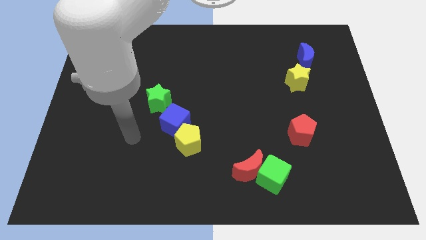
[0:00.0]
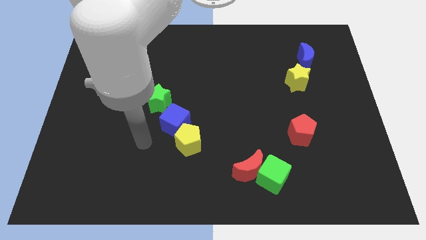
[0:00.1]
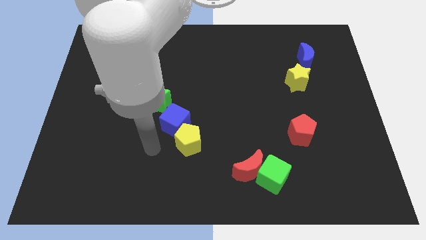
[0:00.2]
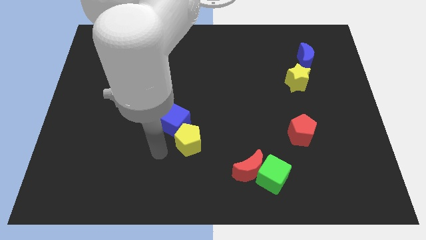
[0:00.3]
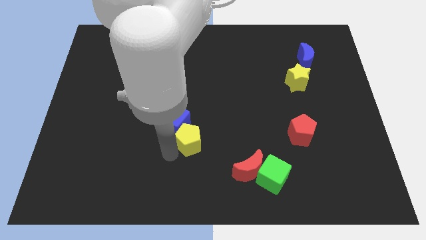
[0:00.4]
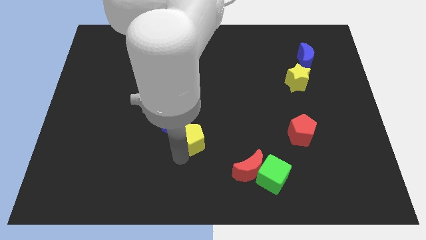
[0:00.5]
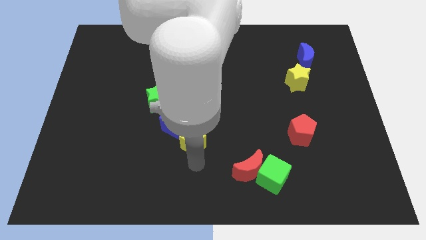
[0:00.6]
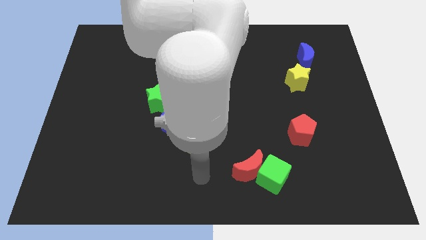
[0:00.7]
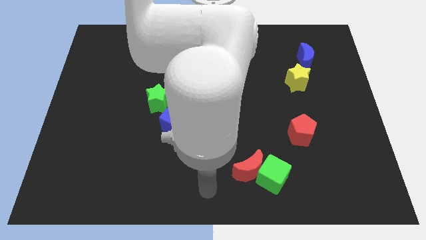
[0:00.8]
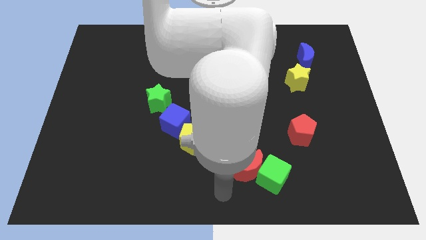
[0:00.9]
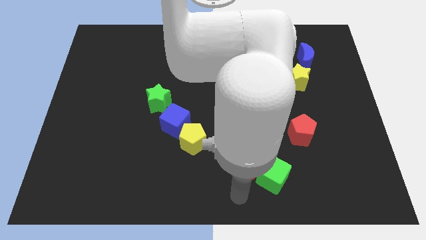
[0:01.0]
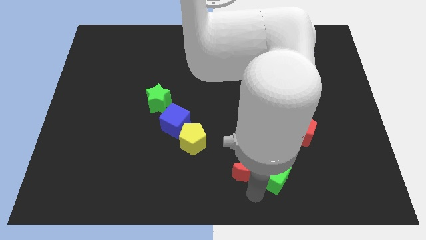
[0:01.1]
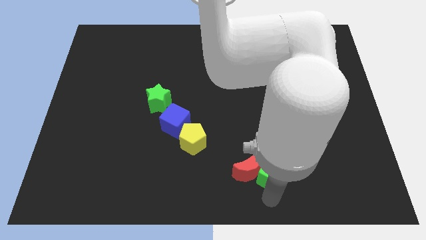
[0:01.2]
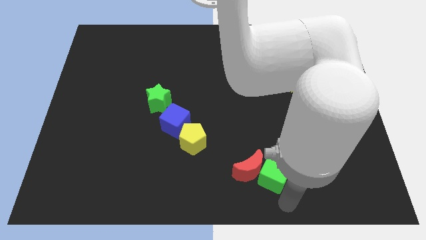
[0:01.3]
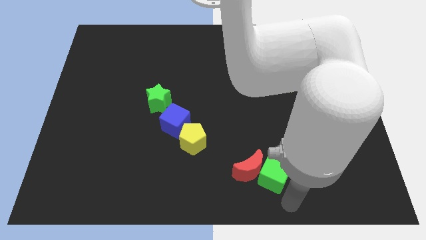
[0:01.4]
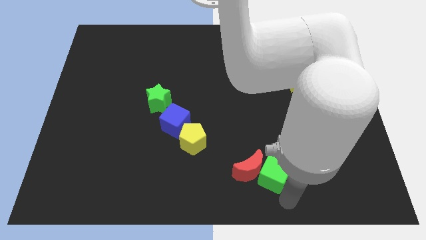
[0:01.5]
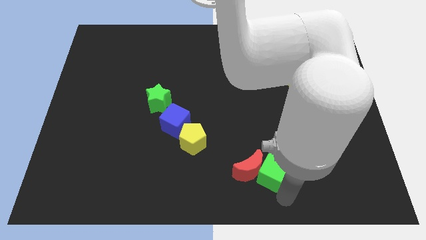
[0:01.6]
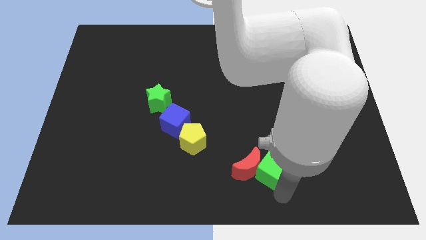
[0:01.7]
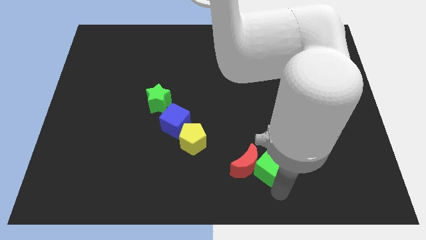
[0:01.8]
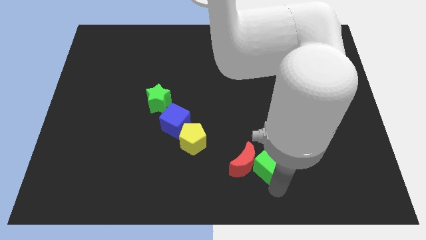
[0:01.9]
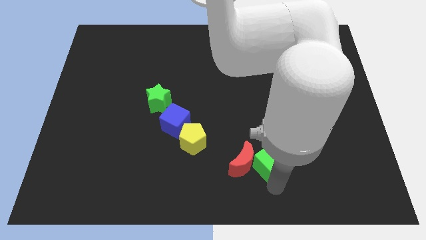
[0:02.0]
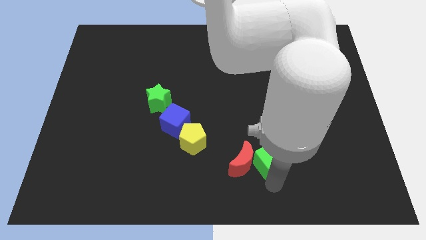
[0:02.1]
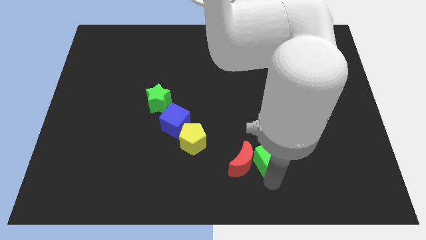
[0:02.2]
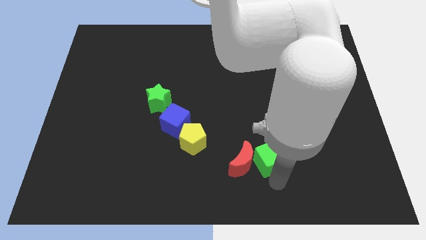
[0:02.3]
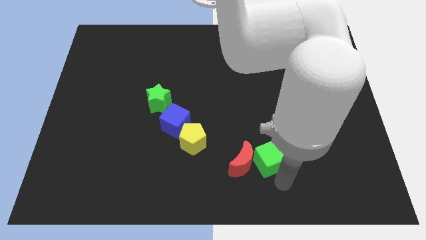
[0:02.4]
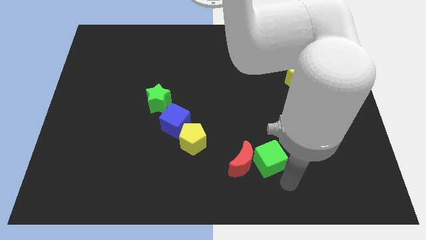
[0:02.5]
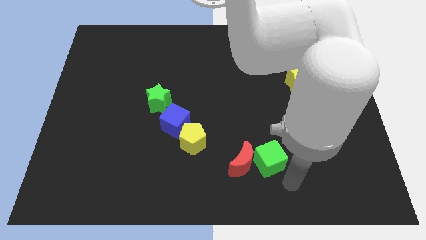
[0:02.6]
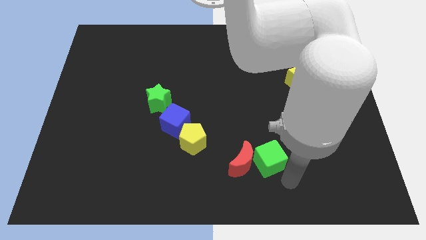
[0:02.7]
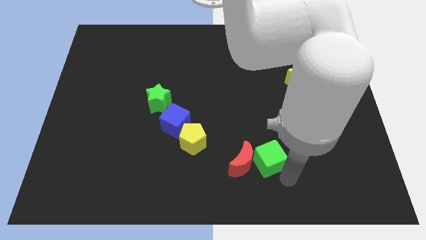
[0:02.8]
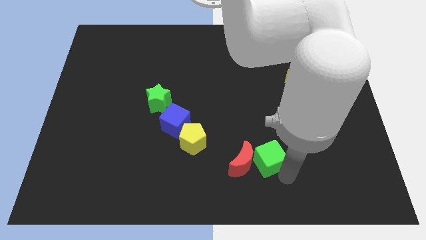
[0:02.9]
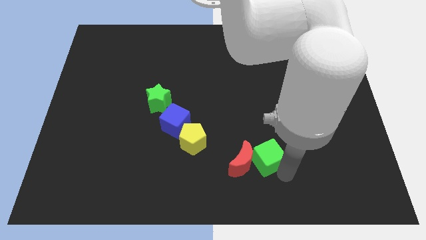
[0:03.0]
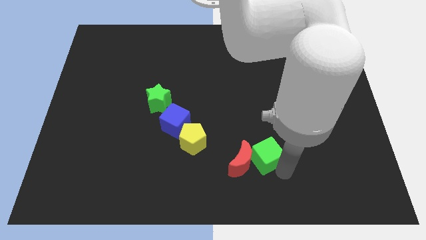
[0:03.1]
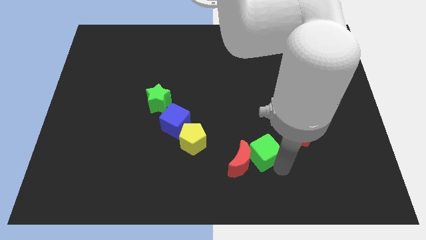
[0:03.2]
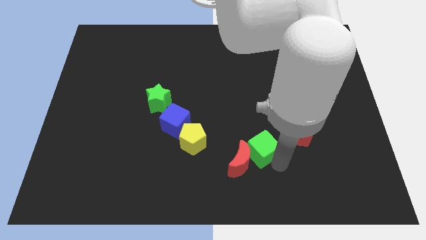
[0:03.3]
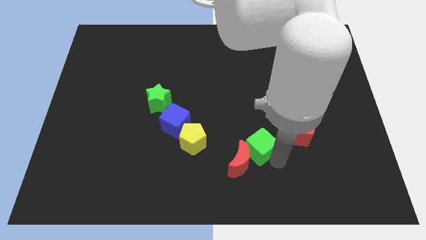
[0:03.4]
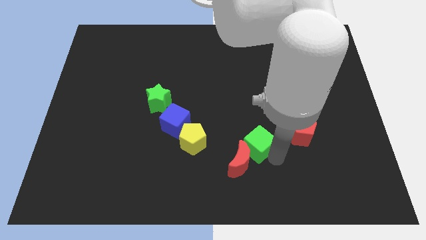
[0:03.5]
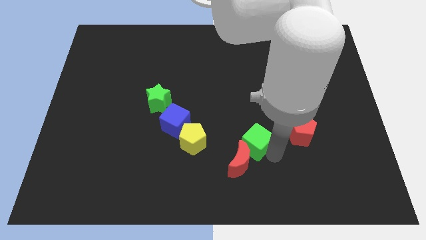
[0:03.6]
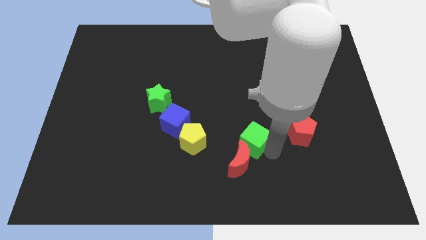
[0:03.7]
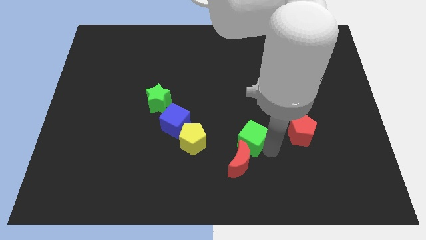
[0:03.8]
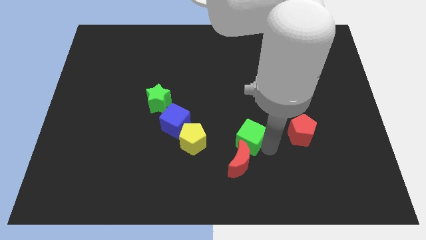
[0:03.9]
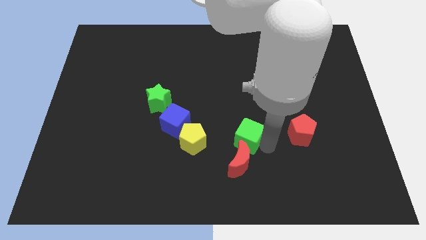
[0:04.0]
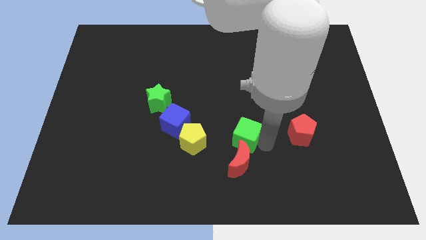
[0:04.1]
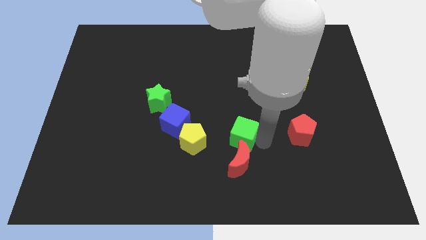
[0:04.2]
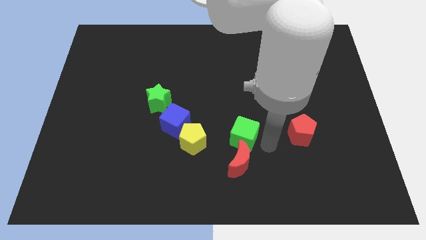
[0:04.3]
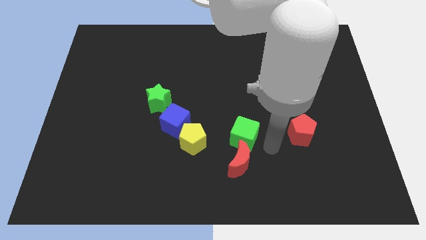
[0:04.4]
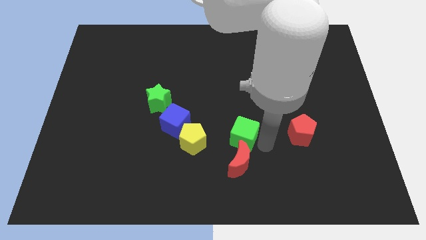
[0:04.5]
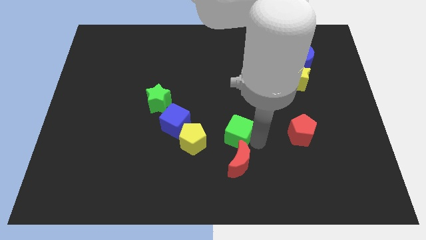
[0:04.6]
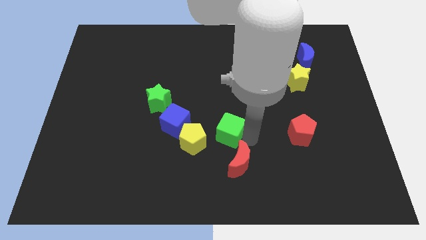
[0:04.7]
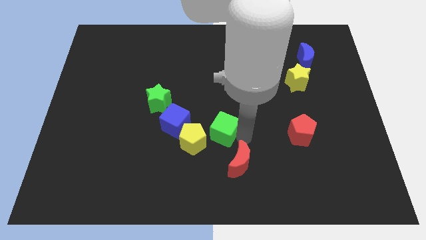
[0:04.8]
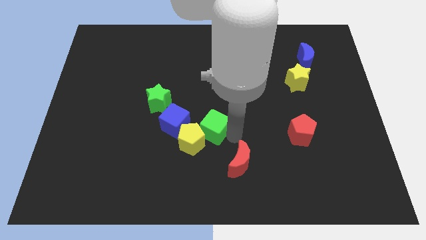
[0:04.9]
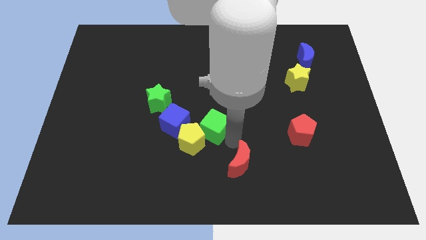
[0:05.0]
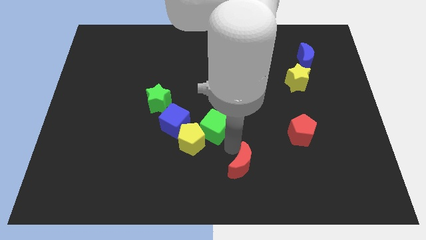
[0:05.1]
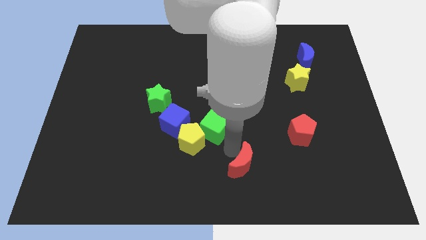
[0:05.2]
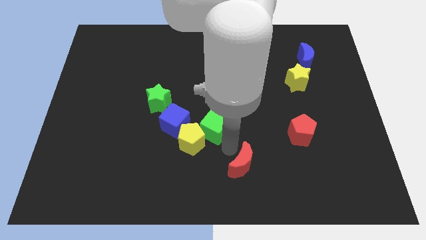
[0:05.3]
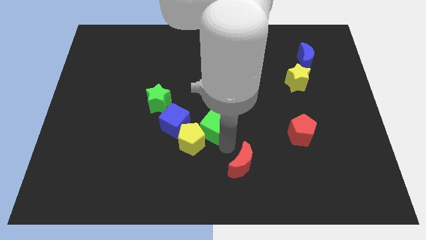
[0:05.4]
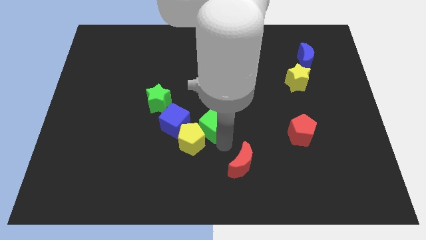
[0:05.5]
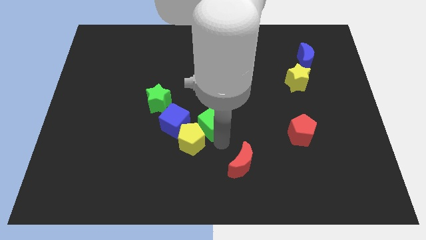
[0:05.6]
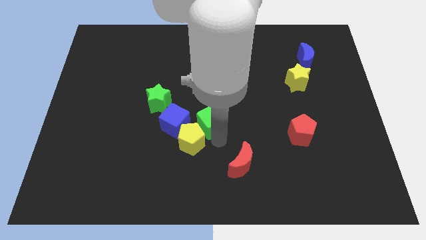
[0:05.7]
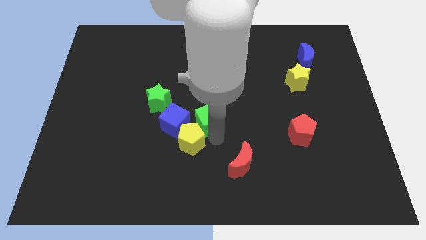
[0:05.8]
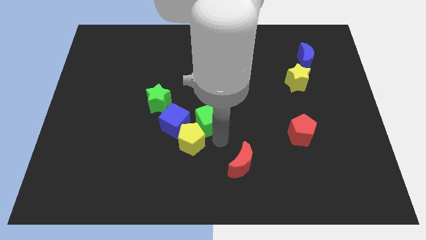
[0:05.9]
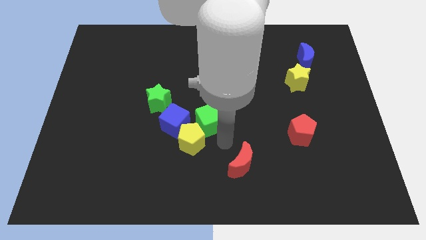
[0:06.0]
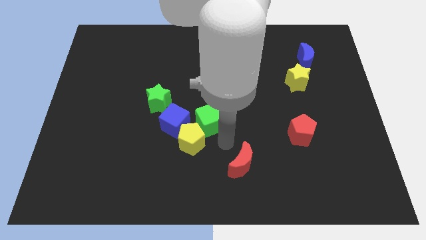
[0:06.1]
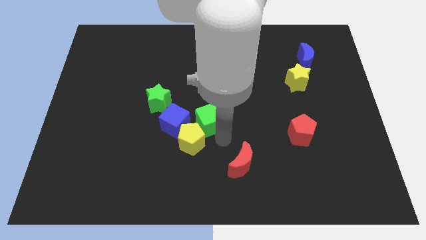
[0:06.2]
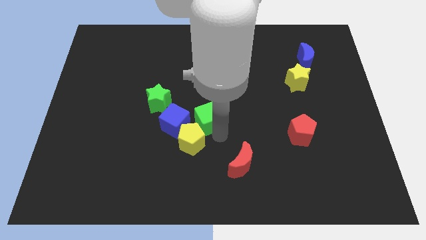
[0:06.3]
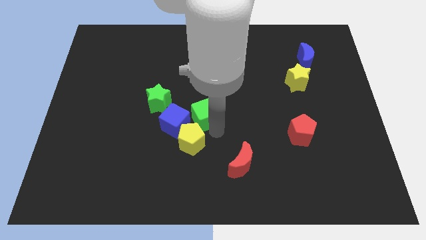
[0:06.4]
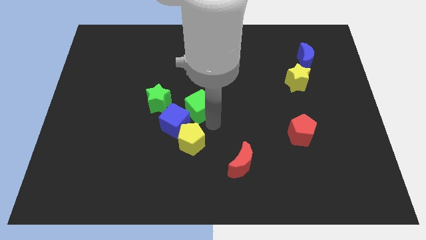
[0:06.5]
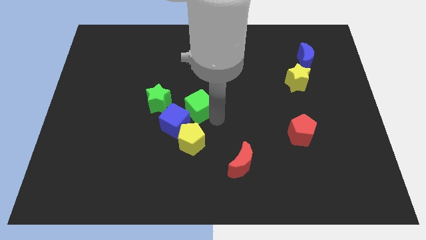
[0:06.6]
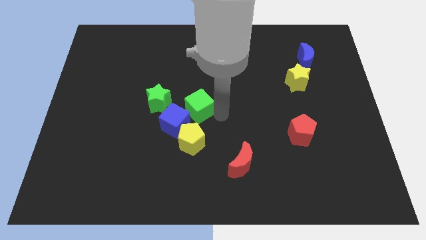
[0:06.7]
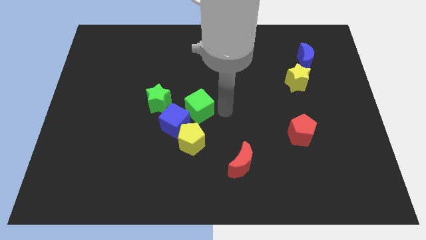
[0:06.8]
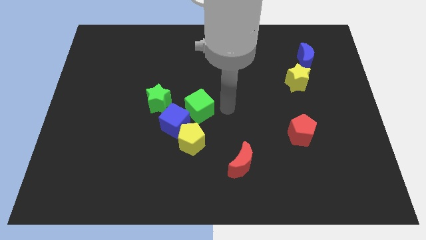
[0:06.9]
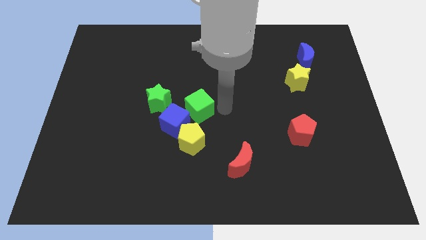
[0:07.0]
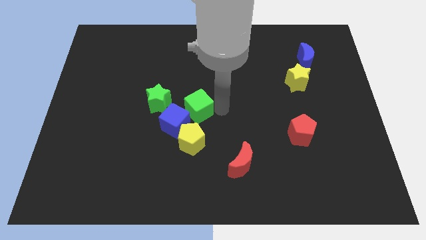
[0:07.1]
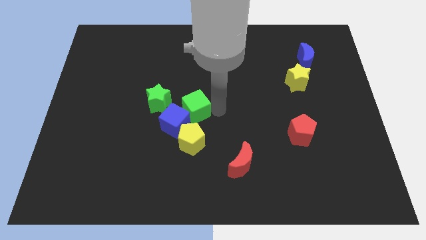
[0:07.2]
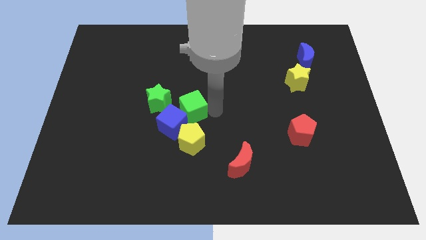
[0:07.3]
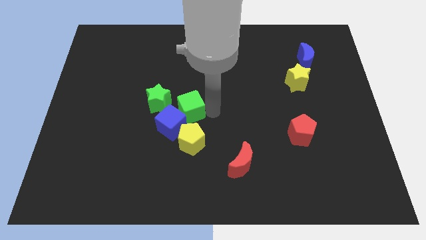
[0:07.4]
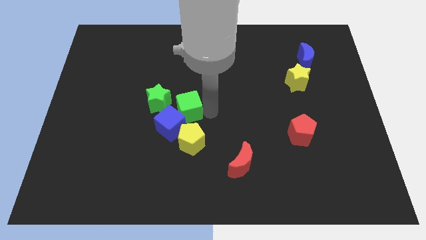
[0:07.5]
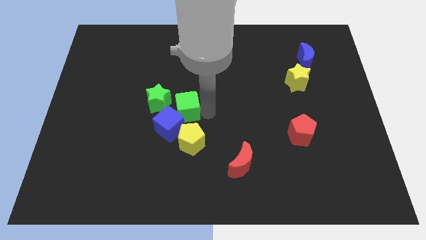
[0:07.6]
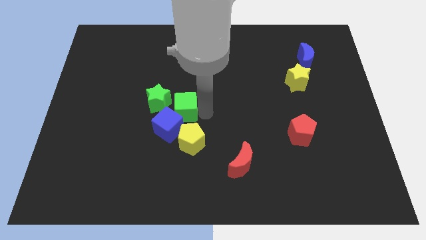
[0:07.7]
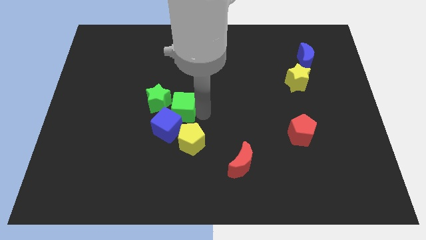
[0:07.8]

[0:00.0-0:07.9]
push the green cube to the green star
